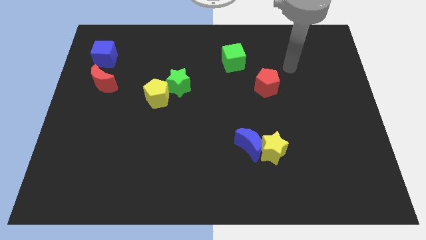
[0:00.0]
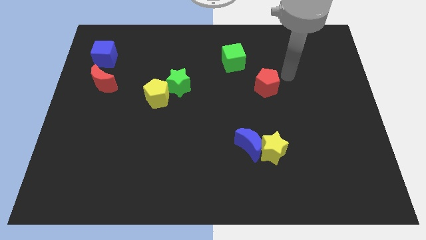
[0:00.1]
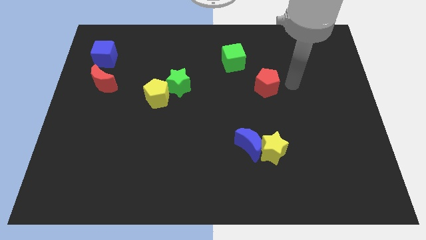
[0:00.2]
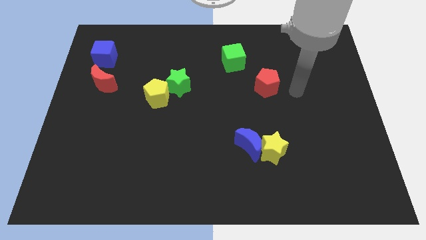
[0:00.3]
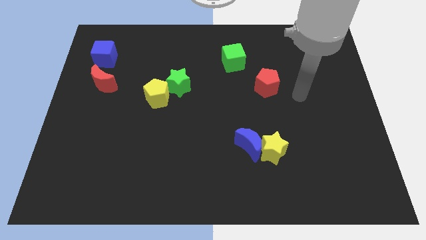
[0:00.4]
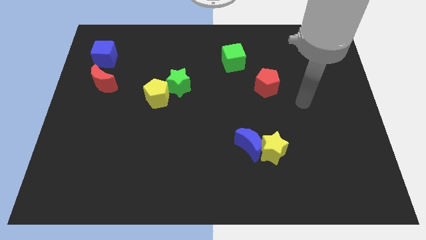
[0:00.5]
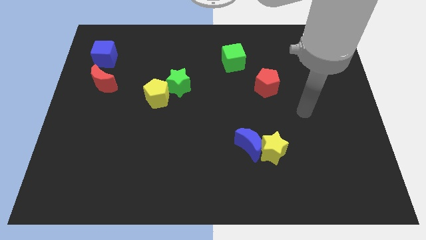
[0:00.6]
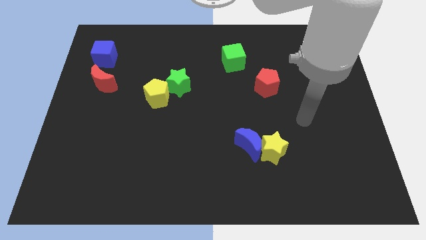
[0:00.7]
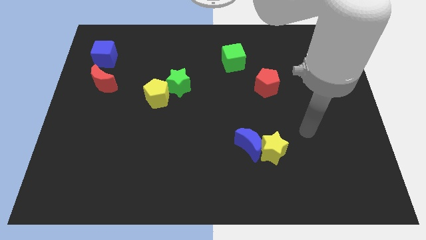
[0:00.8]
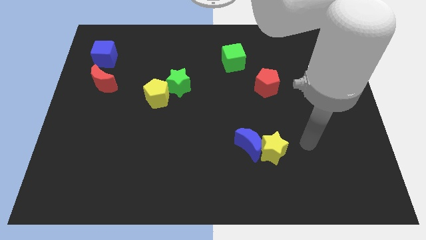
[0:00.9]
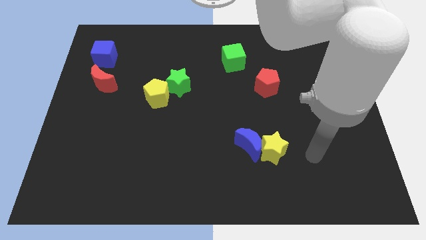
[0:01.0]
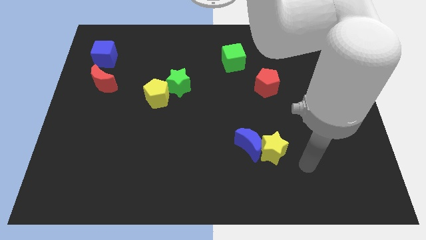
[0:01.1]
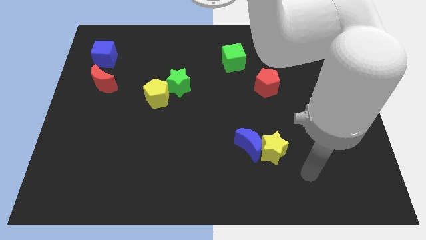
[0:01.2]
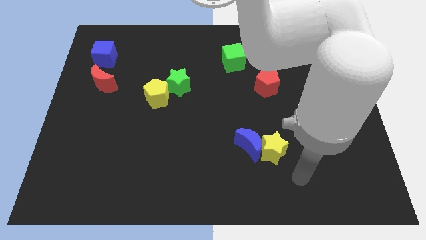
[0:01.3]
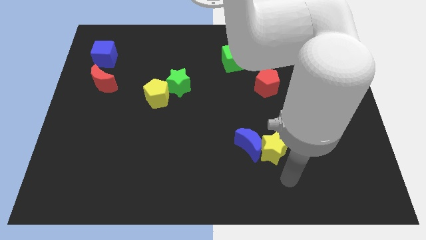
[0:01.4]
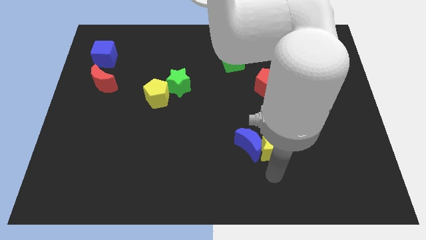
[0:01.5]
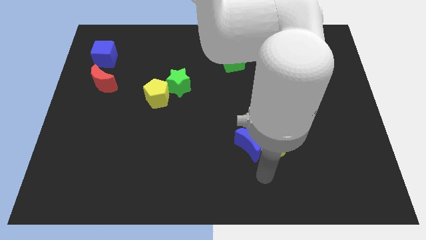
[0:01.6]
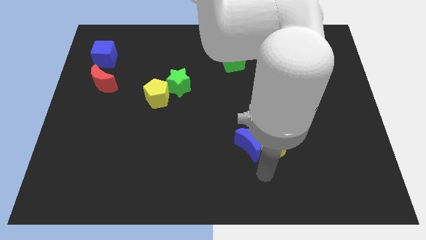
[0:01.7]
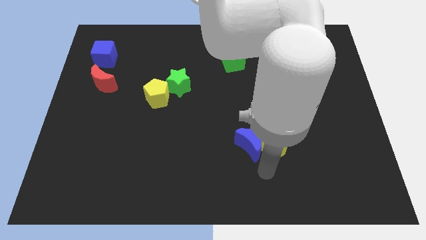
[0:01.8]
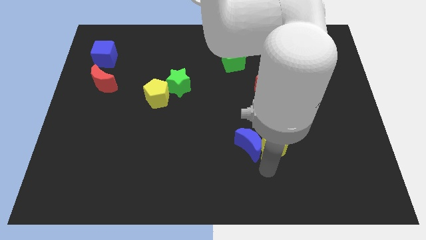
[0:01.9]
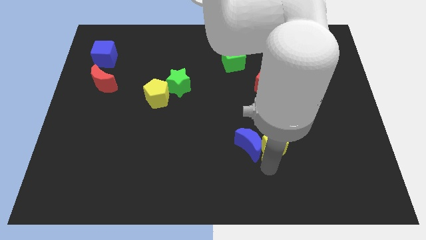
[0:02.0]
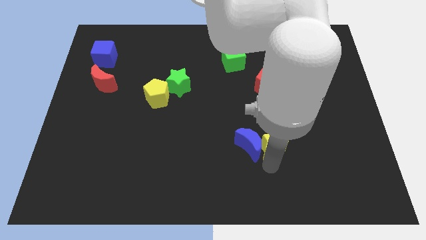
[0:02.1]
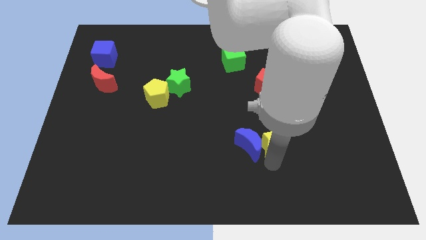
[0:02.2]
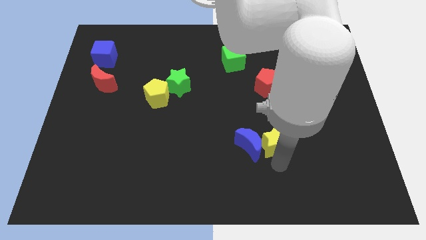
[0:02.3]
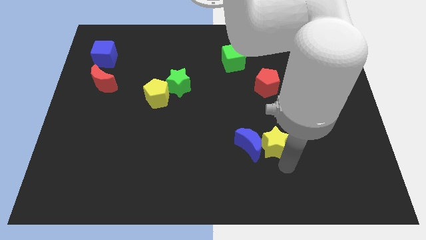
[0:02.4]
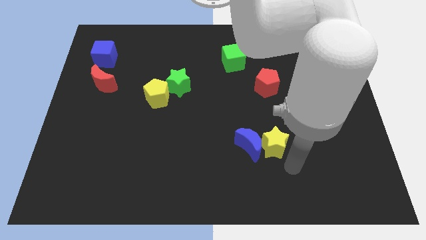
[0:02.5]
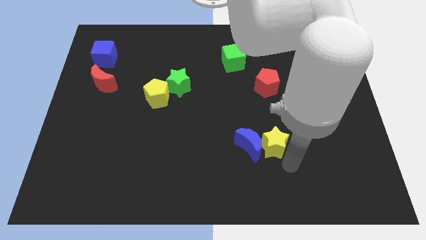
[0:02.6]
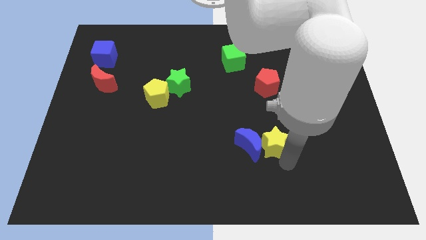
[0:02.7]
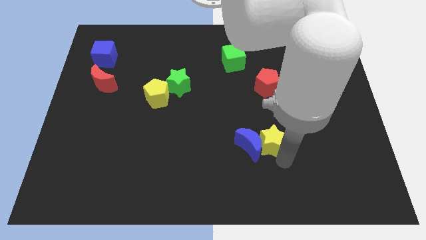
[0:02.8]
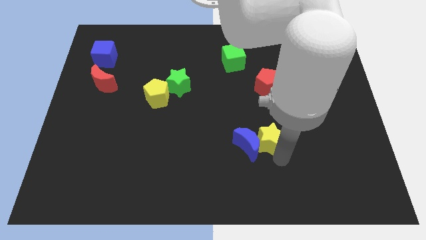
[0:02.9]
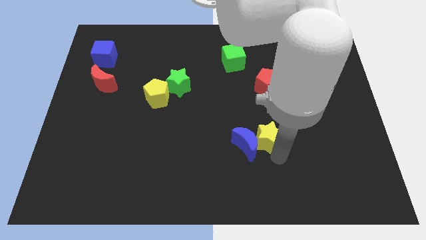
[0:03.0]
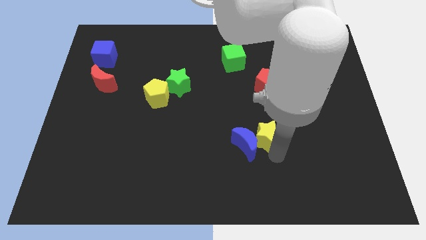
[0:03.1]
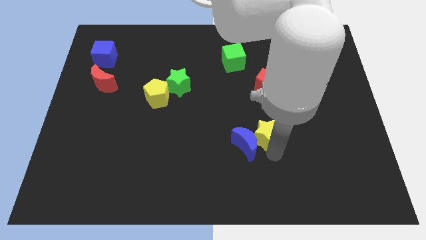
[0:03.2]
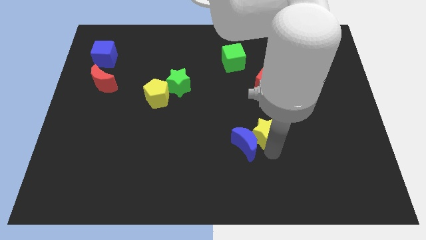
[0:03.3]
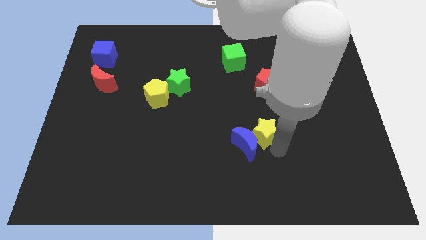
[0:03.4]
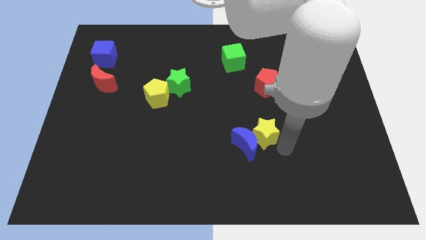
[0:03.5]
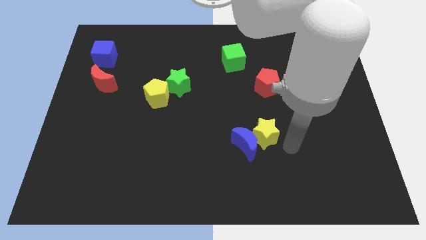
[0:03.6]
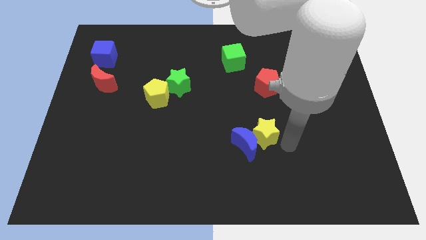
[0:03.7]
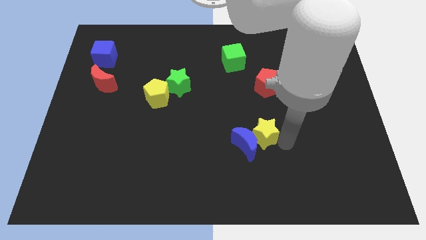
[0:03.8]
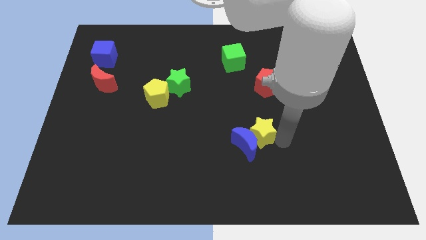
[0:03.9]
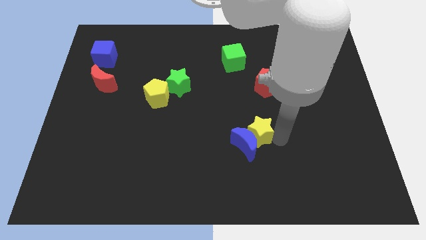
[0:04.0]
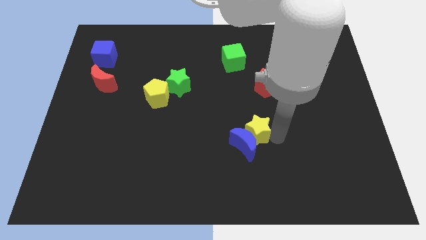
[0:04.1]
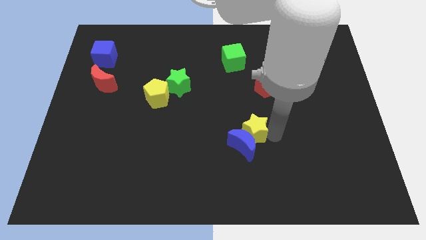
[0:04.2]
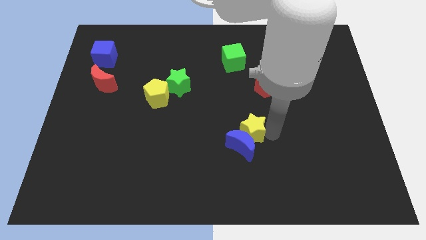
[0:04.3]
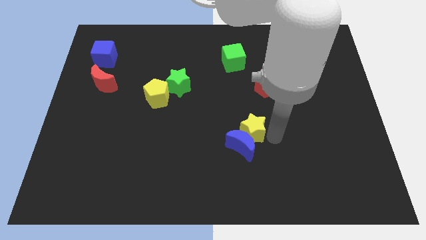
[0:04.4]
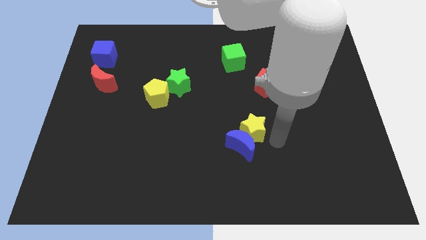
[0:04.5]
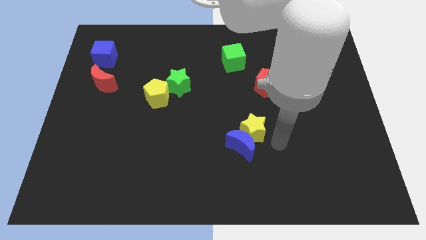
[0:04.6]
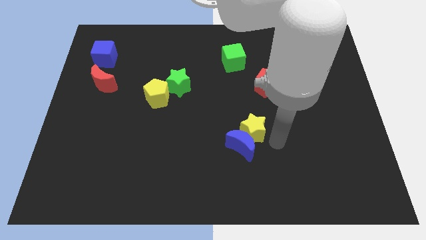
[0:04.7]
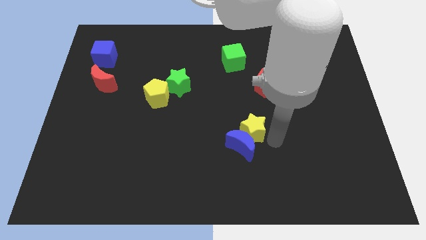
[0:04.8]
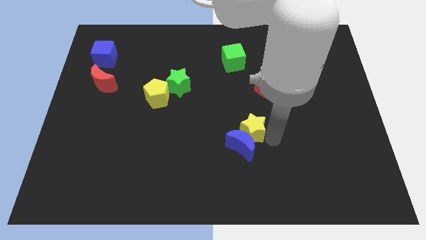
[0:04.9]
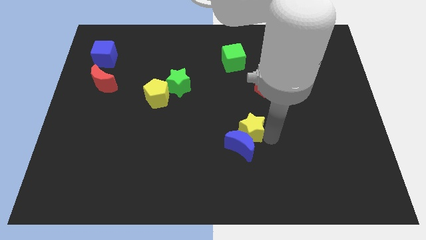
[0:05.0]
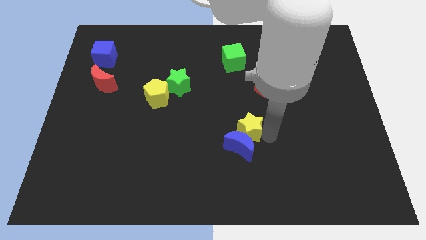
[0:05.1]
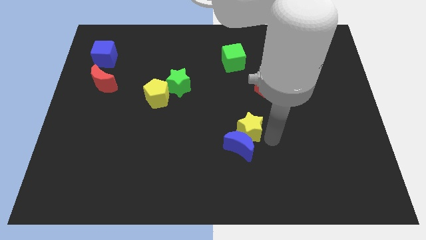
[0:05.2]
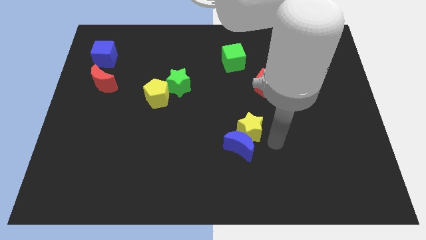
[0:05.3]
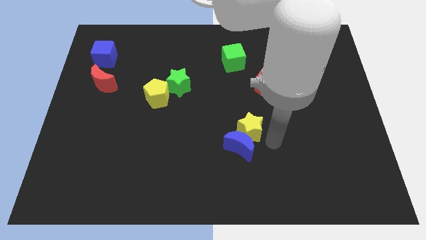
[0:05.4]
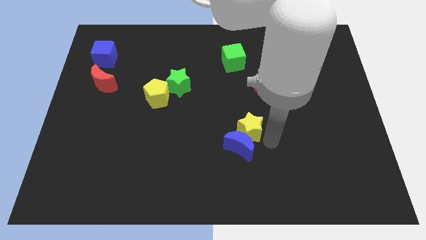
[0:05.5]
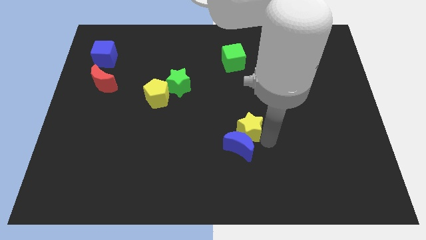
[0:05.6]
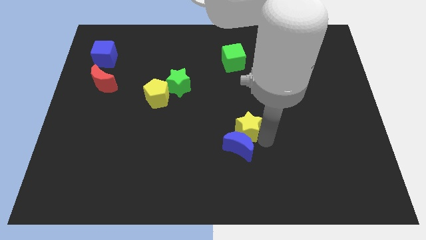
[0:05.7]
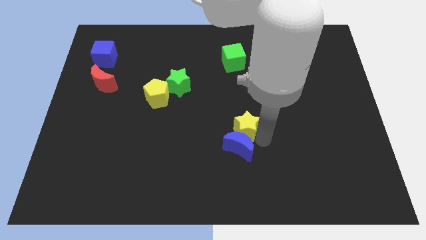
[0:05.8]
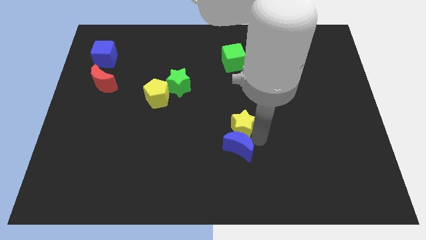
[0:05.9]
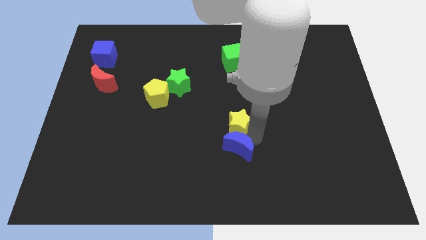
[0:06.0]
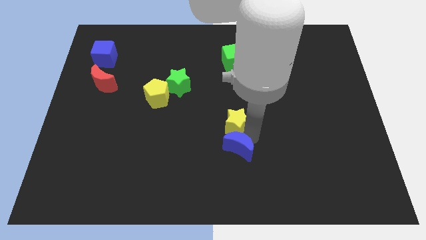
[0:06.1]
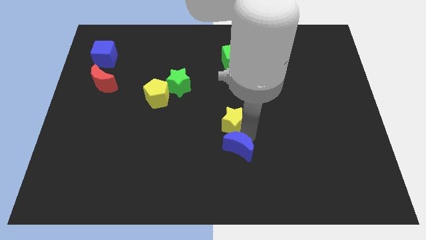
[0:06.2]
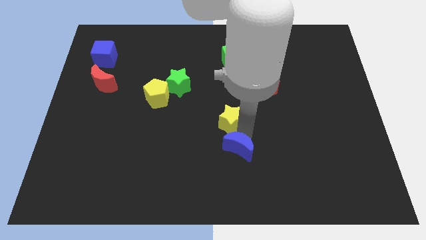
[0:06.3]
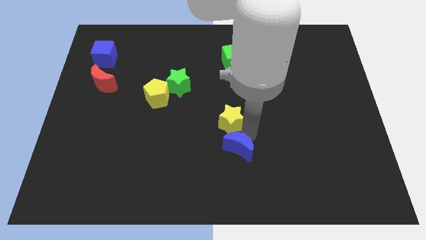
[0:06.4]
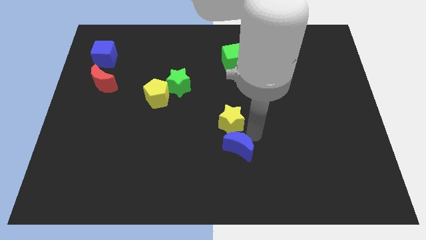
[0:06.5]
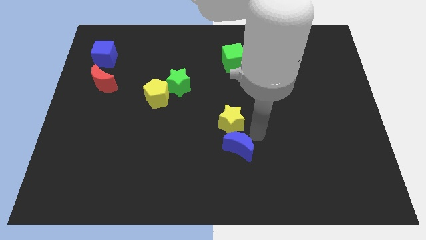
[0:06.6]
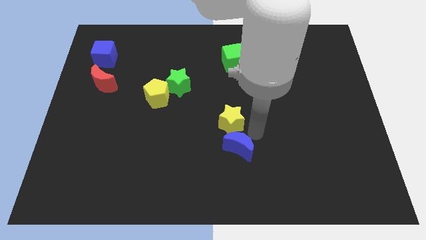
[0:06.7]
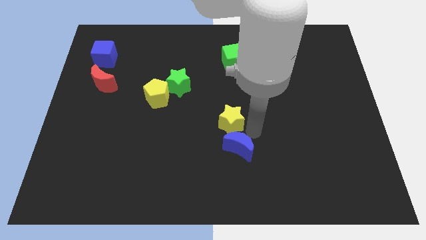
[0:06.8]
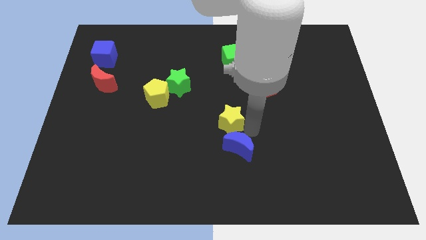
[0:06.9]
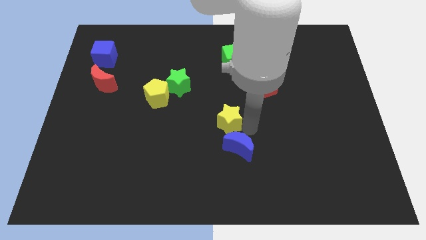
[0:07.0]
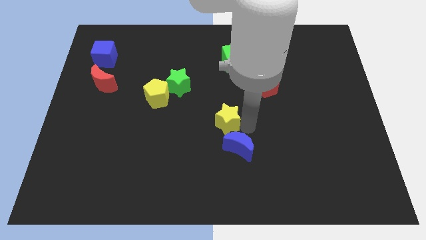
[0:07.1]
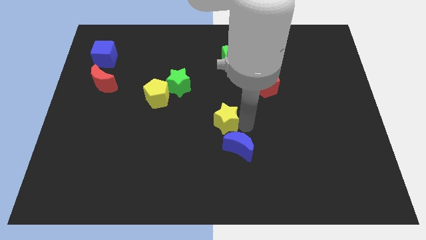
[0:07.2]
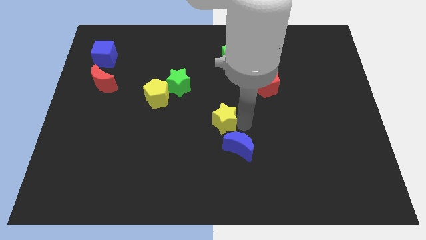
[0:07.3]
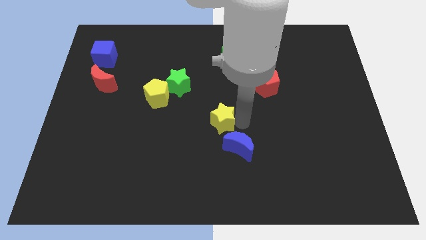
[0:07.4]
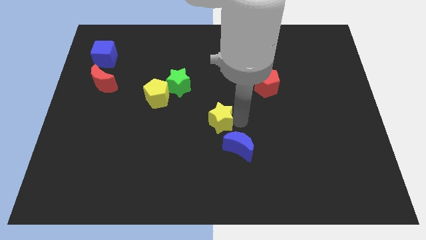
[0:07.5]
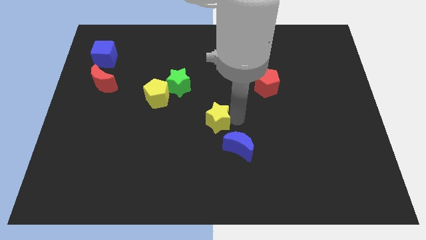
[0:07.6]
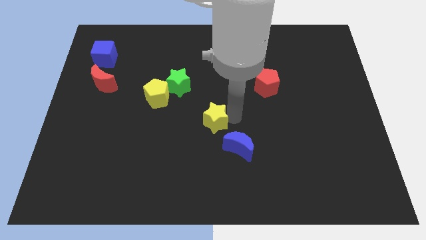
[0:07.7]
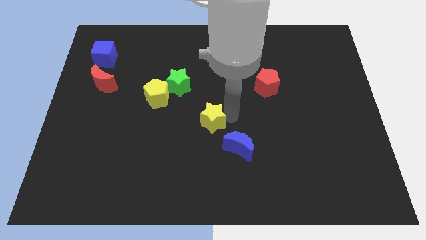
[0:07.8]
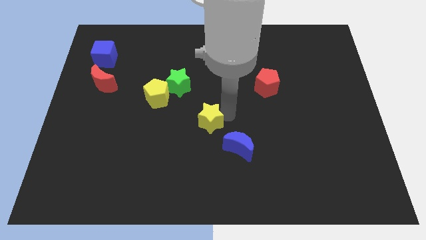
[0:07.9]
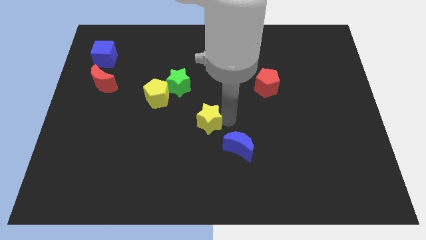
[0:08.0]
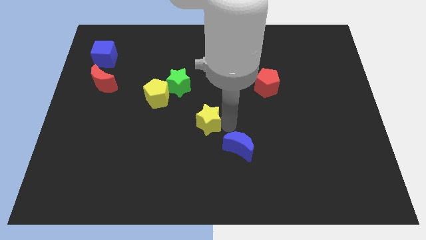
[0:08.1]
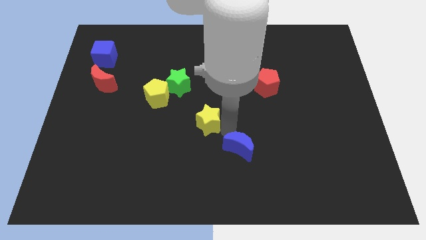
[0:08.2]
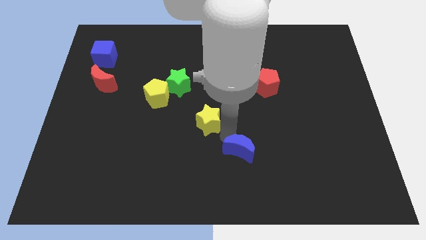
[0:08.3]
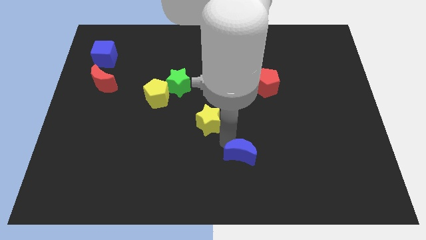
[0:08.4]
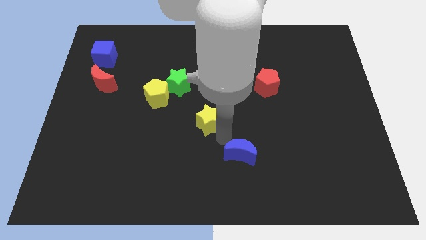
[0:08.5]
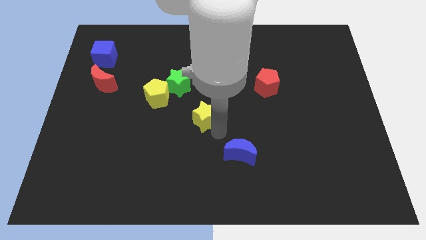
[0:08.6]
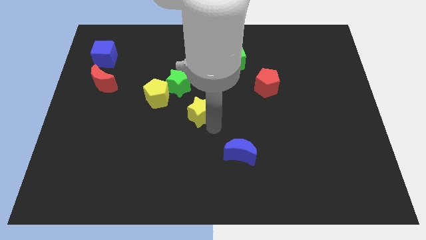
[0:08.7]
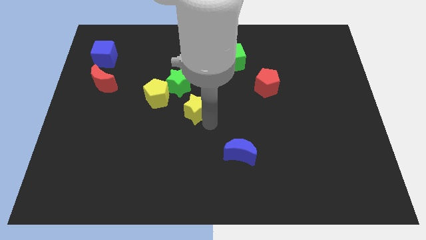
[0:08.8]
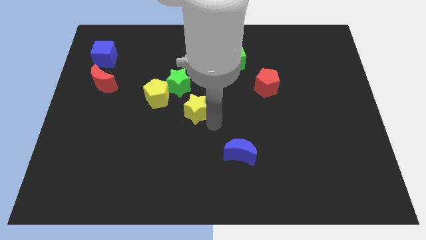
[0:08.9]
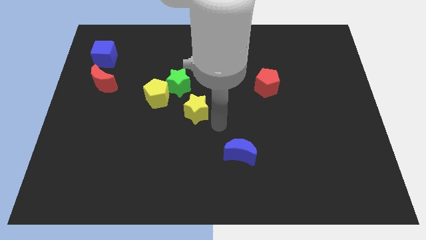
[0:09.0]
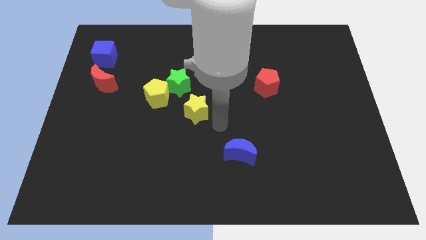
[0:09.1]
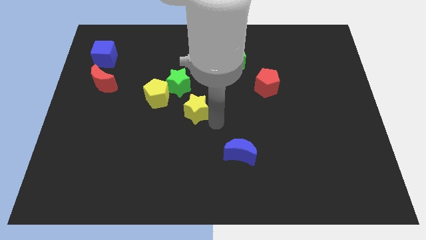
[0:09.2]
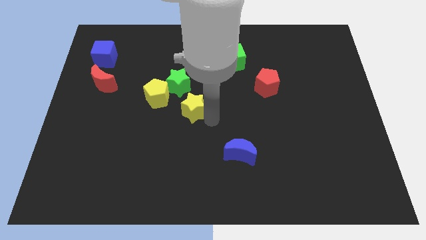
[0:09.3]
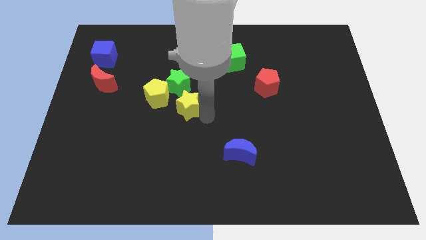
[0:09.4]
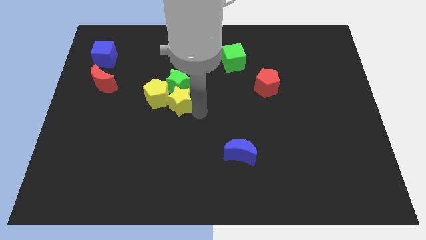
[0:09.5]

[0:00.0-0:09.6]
move the yellow star to the yellow pentagon
